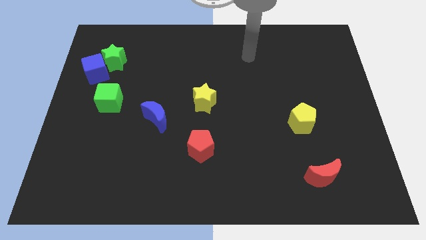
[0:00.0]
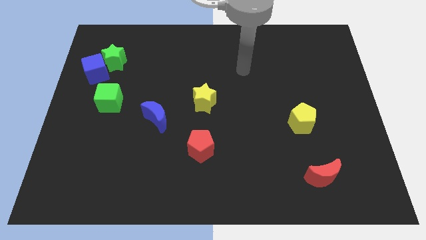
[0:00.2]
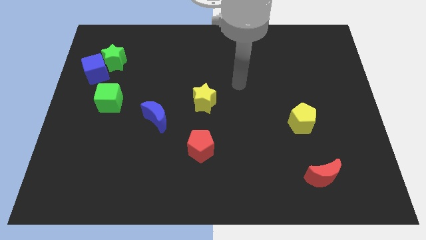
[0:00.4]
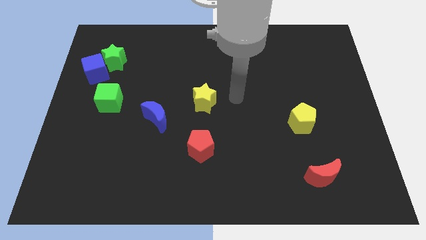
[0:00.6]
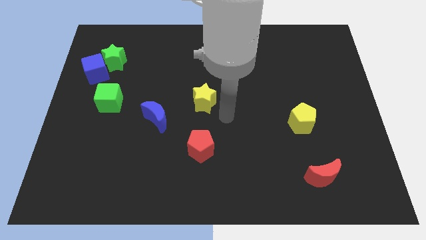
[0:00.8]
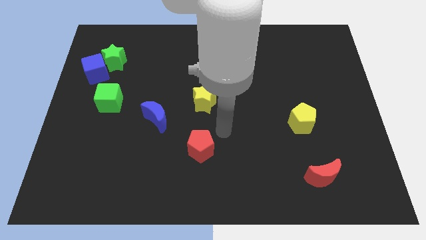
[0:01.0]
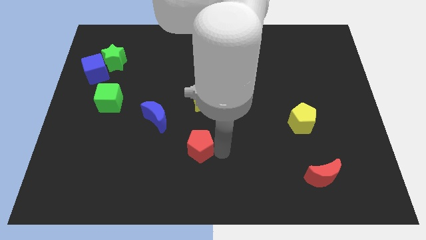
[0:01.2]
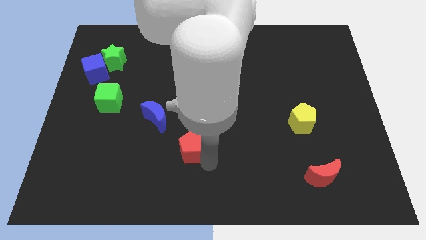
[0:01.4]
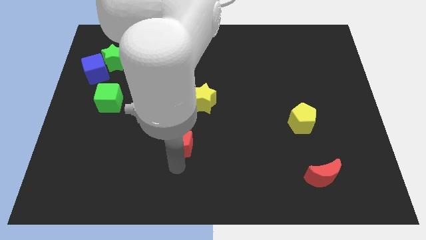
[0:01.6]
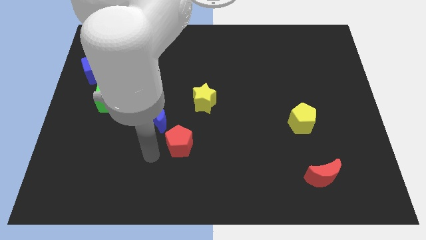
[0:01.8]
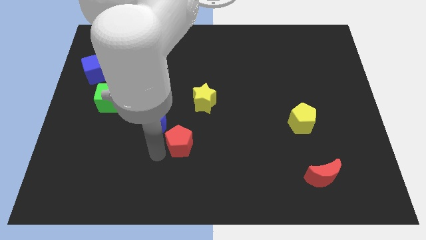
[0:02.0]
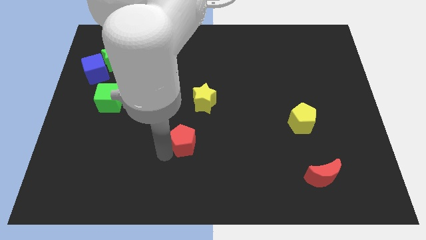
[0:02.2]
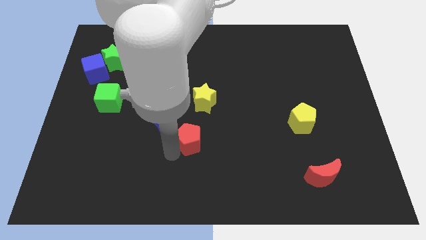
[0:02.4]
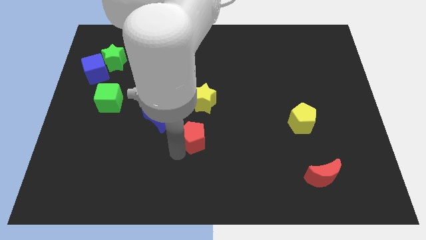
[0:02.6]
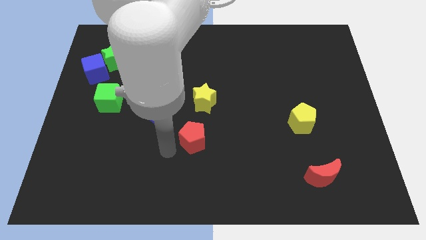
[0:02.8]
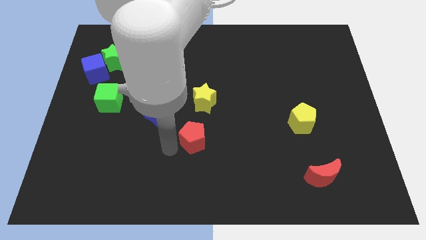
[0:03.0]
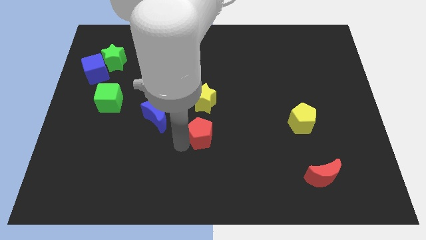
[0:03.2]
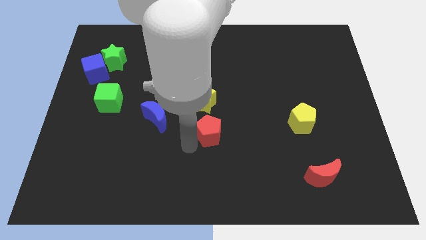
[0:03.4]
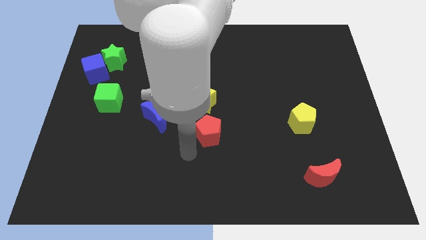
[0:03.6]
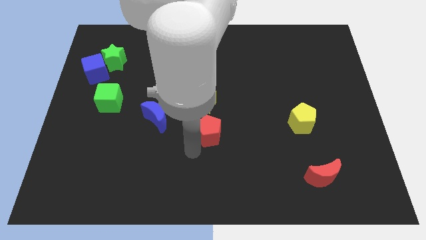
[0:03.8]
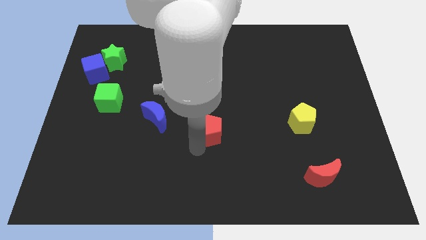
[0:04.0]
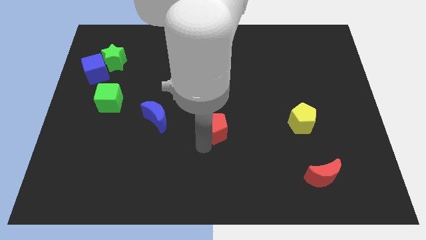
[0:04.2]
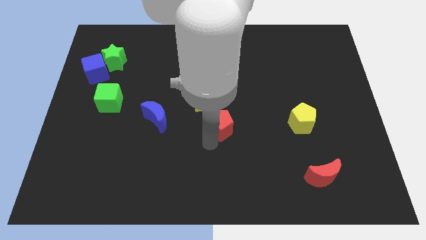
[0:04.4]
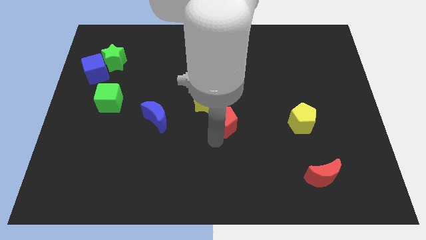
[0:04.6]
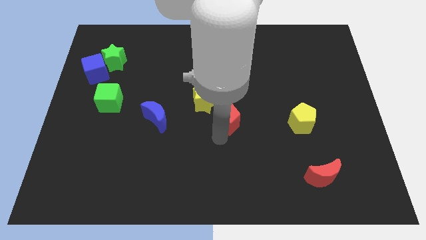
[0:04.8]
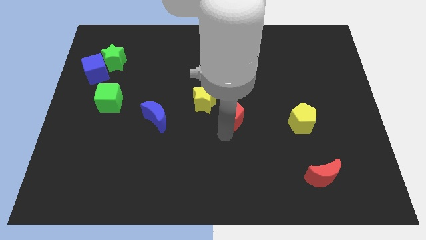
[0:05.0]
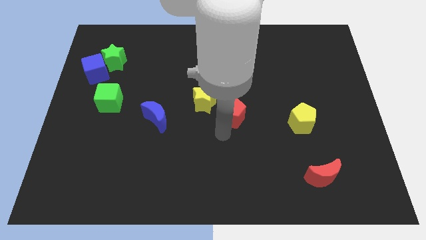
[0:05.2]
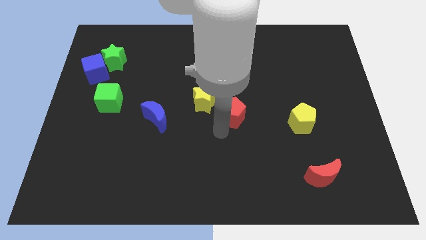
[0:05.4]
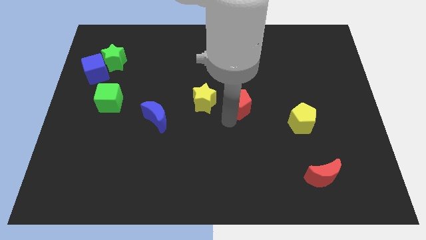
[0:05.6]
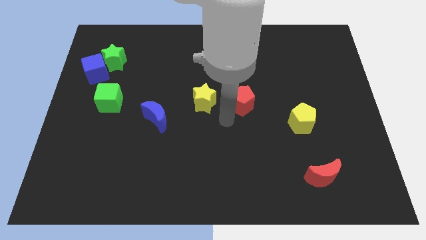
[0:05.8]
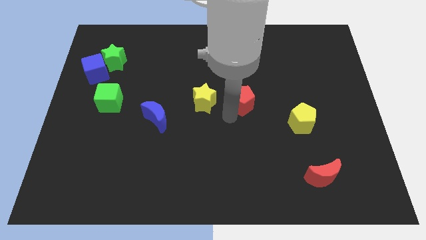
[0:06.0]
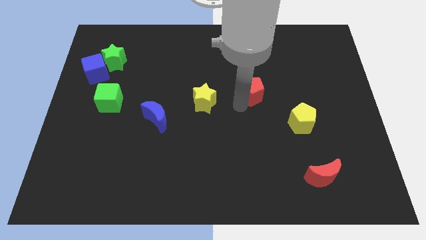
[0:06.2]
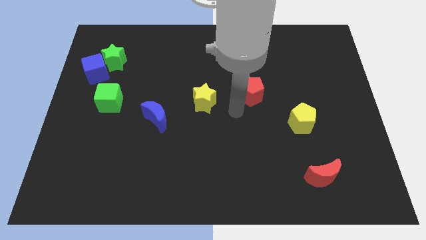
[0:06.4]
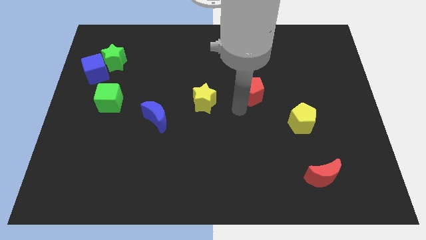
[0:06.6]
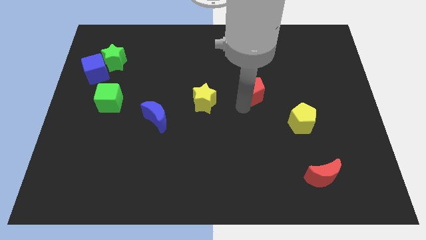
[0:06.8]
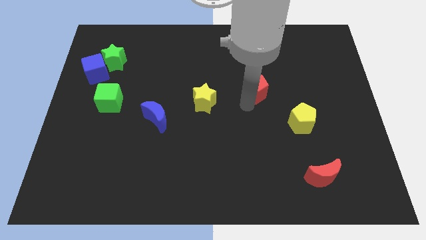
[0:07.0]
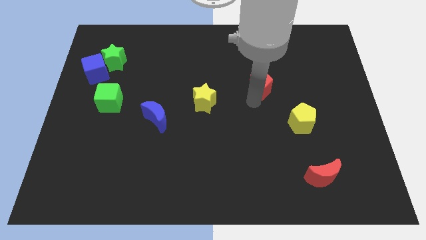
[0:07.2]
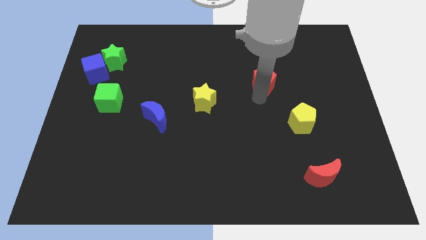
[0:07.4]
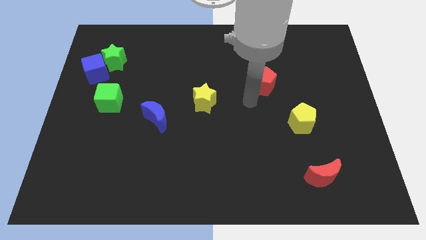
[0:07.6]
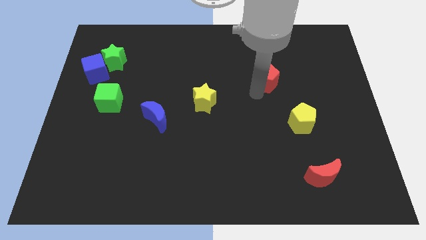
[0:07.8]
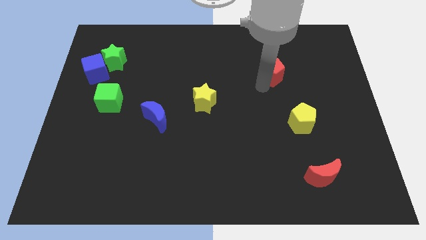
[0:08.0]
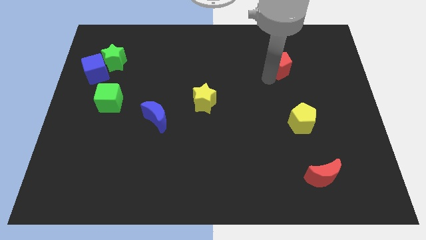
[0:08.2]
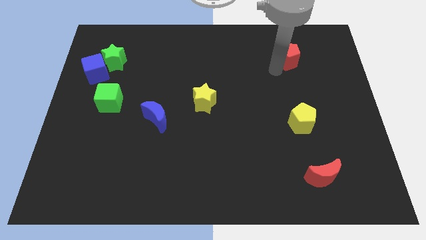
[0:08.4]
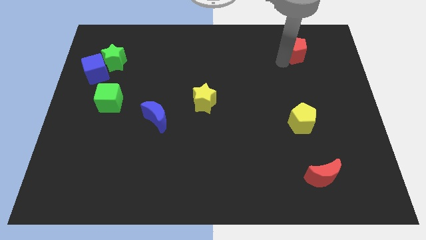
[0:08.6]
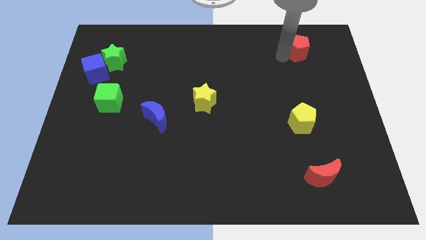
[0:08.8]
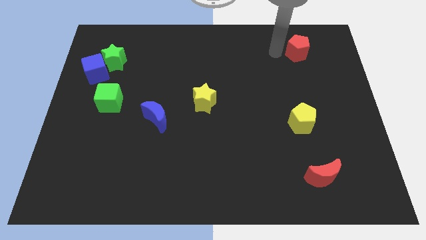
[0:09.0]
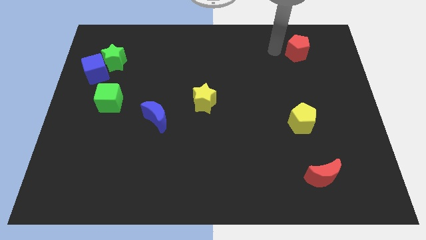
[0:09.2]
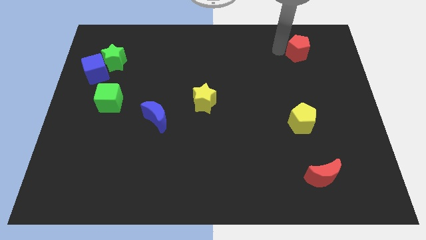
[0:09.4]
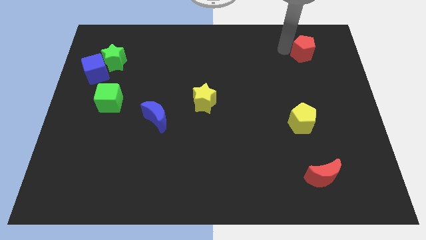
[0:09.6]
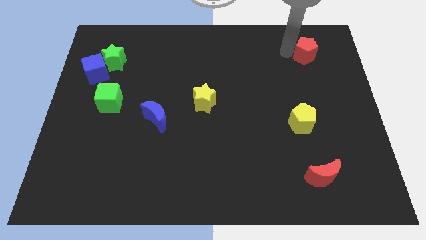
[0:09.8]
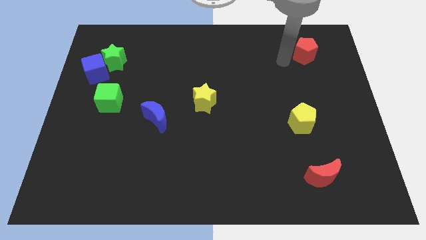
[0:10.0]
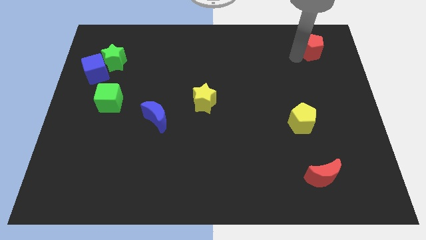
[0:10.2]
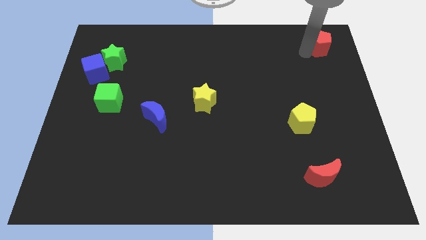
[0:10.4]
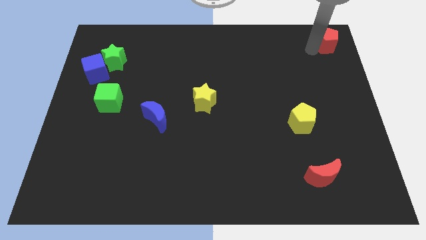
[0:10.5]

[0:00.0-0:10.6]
move the red pentagon to the top right

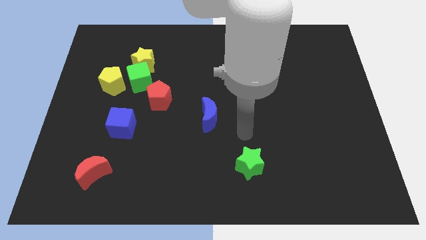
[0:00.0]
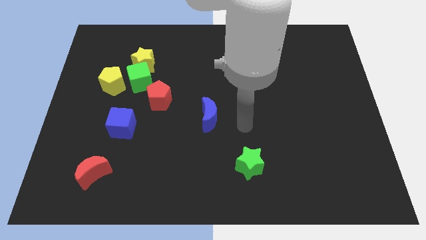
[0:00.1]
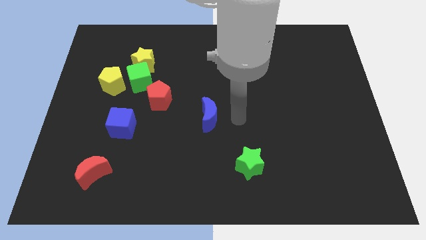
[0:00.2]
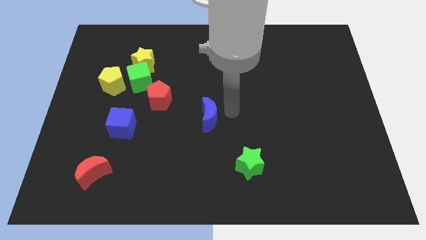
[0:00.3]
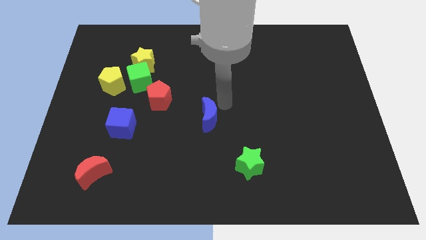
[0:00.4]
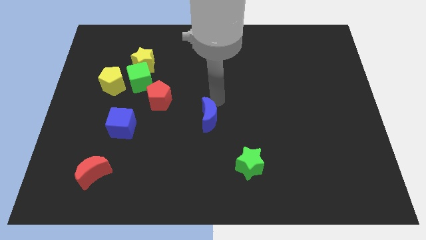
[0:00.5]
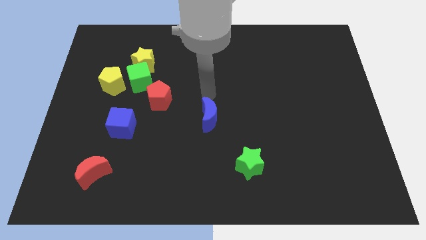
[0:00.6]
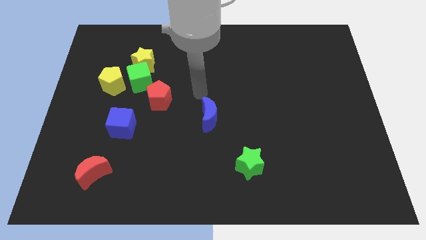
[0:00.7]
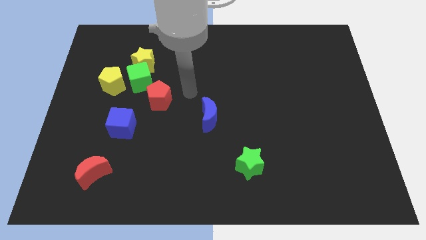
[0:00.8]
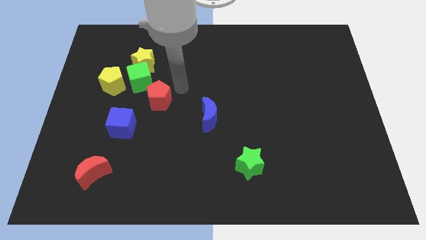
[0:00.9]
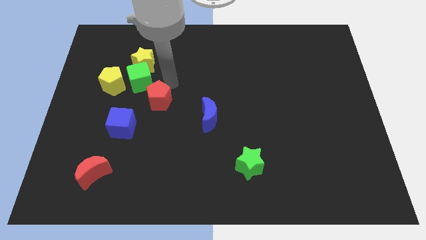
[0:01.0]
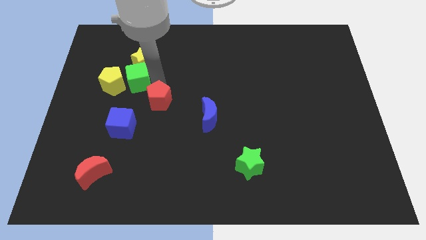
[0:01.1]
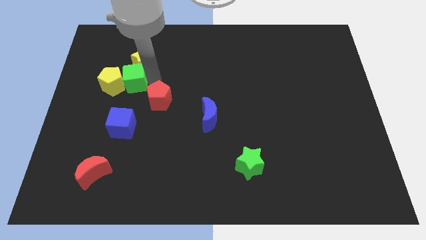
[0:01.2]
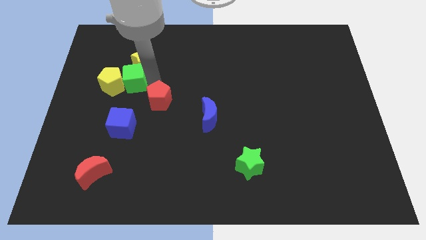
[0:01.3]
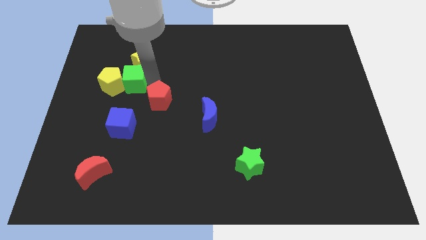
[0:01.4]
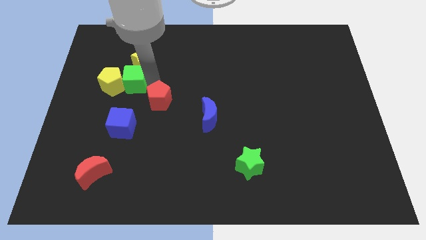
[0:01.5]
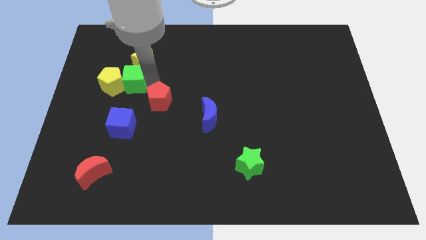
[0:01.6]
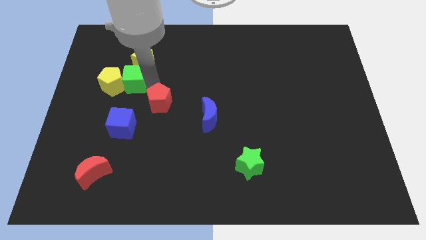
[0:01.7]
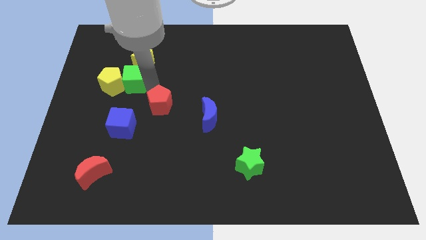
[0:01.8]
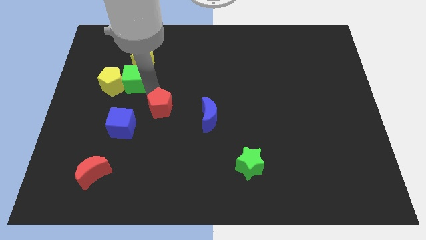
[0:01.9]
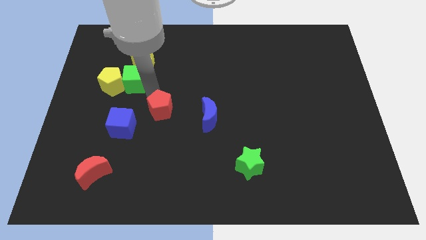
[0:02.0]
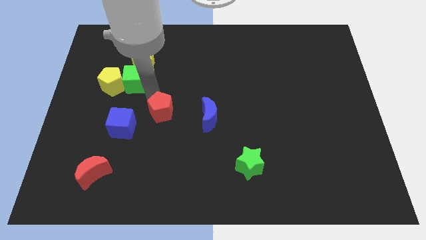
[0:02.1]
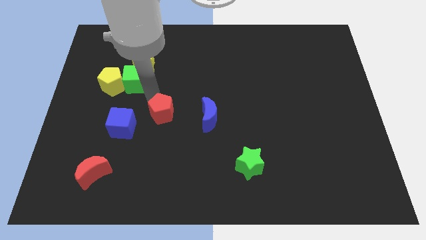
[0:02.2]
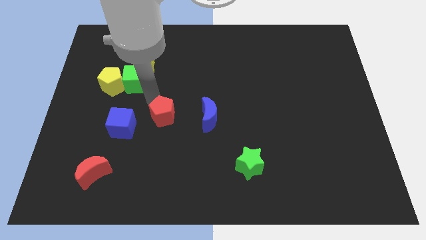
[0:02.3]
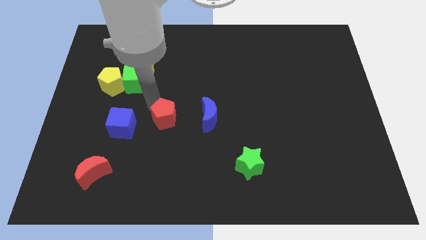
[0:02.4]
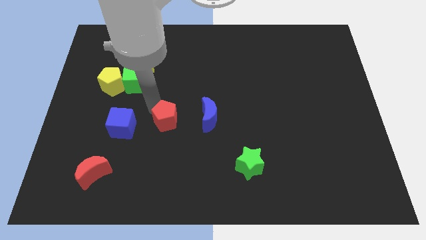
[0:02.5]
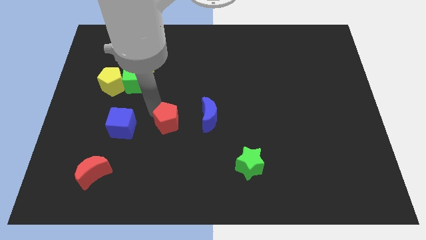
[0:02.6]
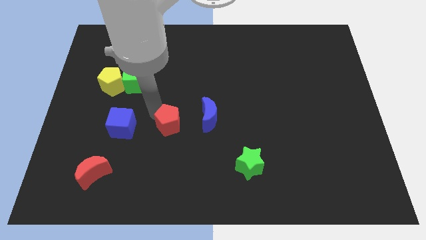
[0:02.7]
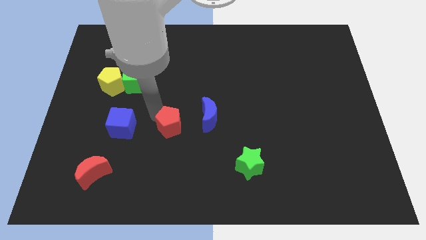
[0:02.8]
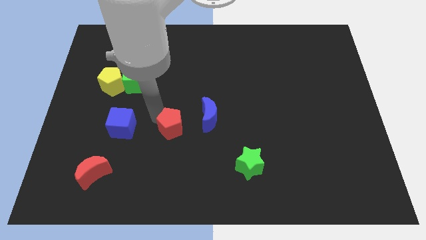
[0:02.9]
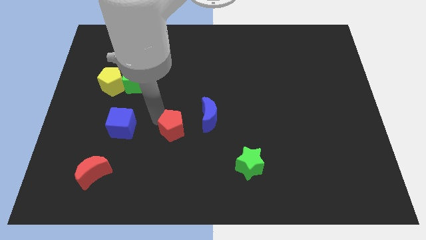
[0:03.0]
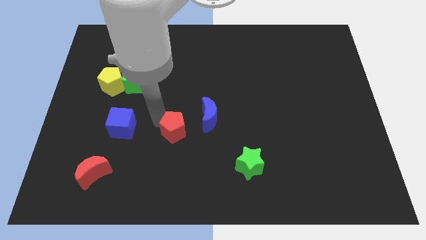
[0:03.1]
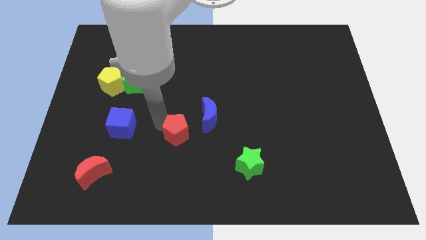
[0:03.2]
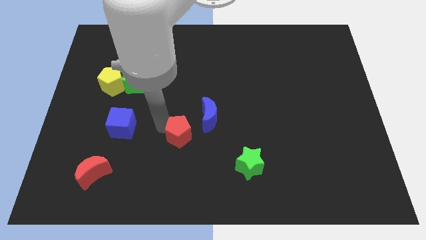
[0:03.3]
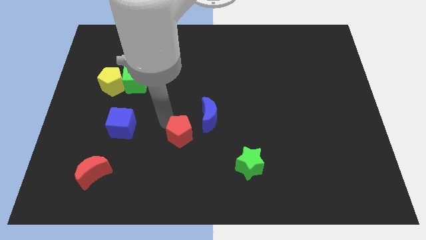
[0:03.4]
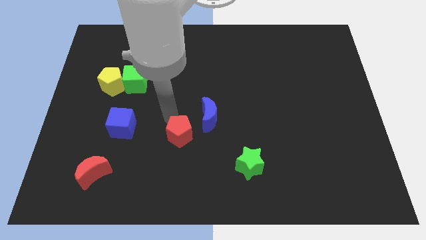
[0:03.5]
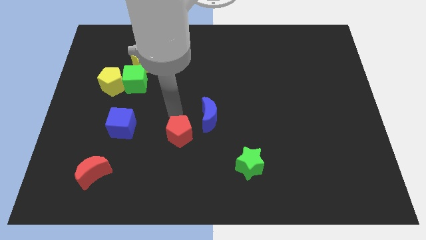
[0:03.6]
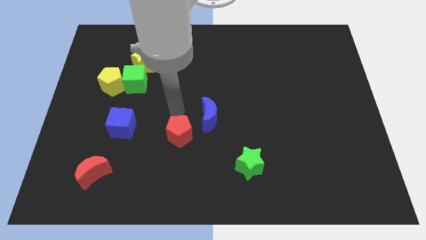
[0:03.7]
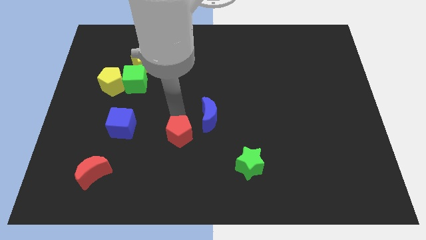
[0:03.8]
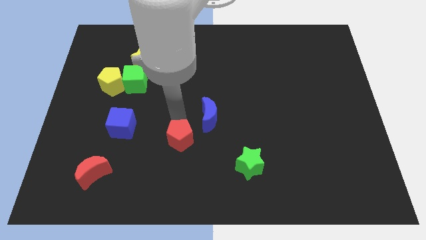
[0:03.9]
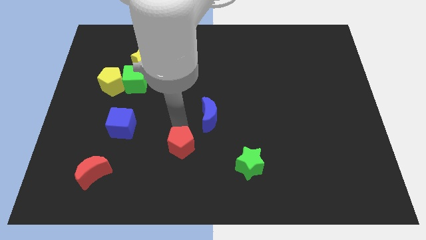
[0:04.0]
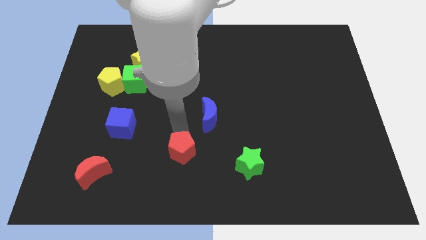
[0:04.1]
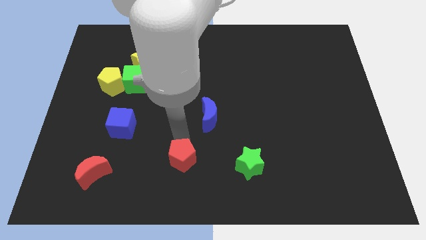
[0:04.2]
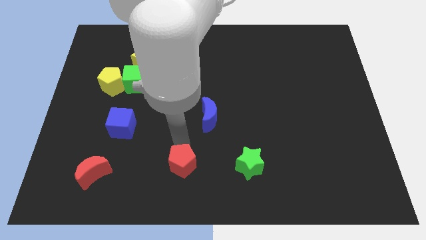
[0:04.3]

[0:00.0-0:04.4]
push the red pentagon to the bottom
